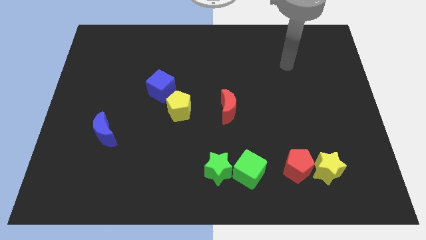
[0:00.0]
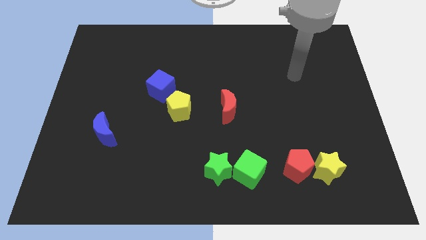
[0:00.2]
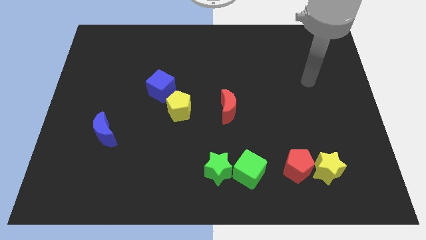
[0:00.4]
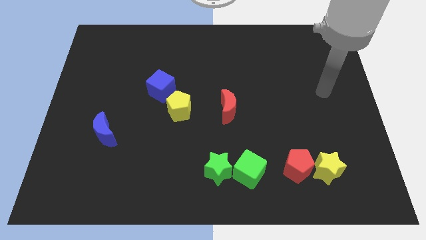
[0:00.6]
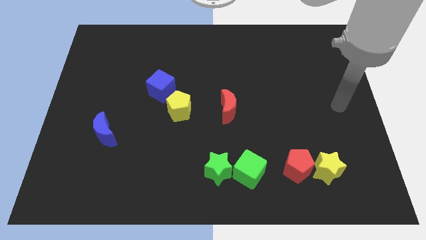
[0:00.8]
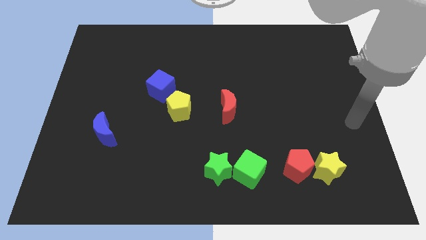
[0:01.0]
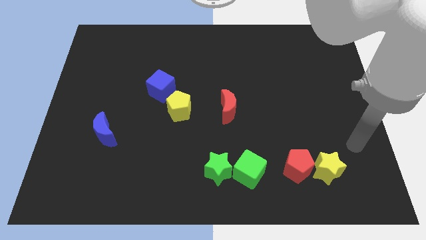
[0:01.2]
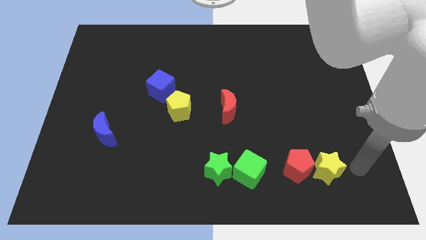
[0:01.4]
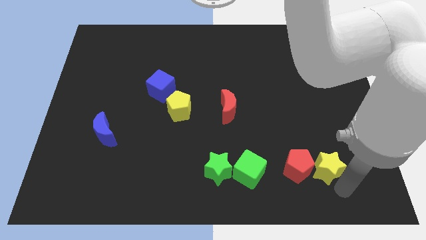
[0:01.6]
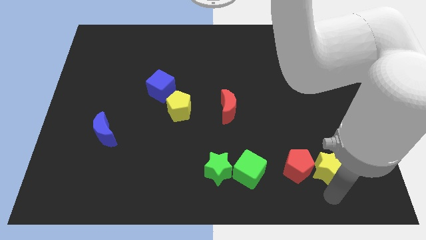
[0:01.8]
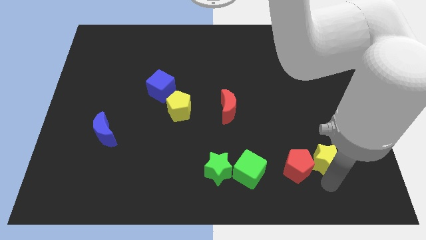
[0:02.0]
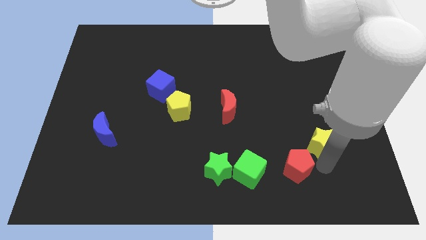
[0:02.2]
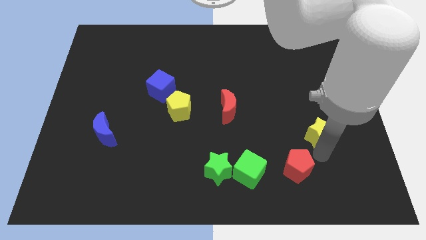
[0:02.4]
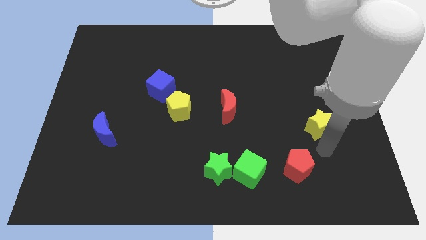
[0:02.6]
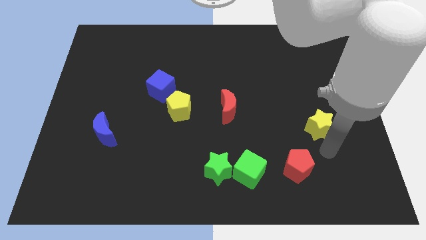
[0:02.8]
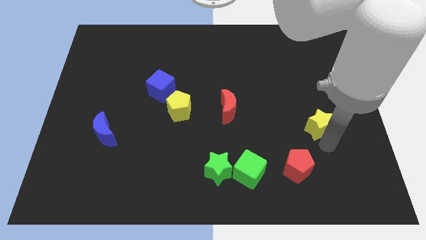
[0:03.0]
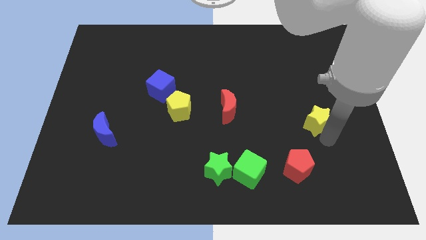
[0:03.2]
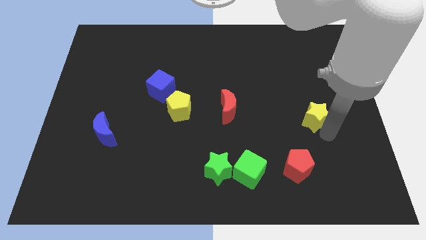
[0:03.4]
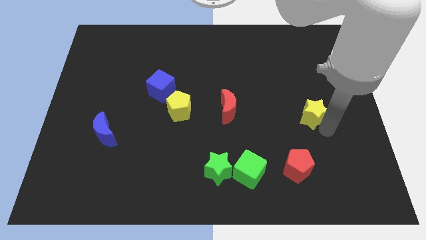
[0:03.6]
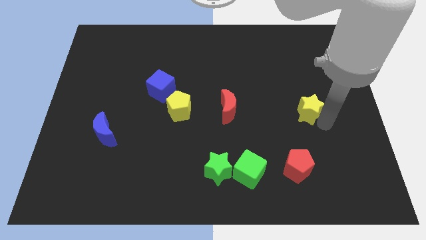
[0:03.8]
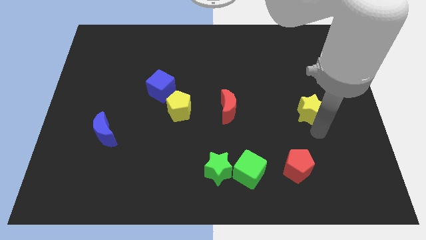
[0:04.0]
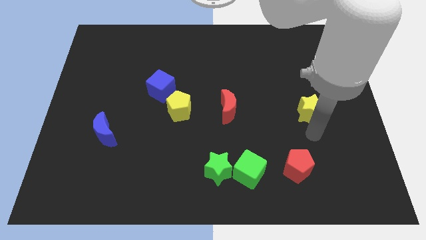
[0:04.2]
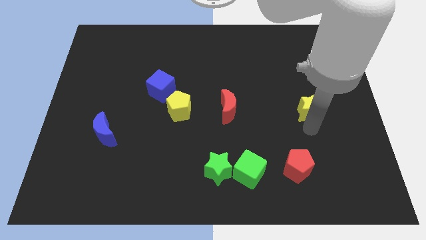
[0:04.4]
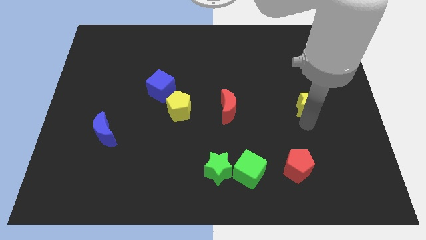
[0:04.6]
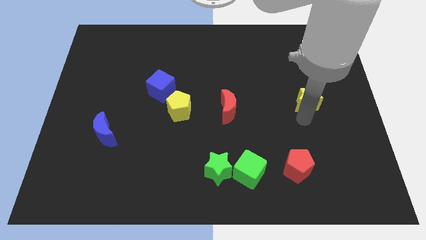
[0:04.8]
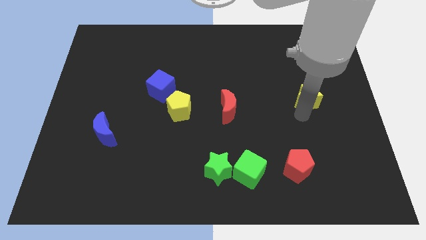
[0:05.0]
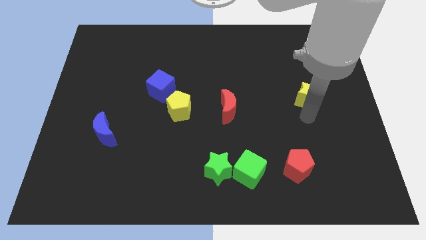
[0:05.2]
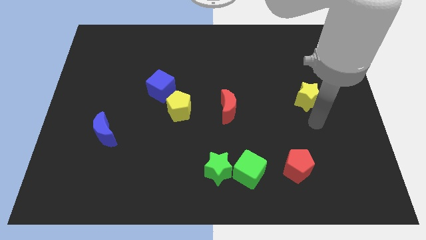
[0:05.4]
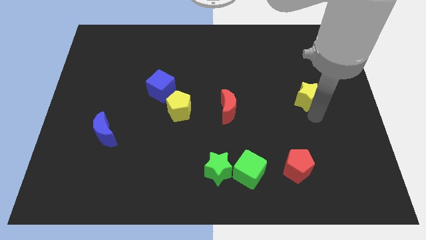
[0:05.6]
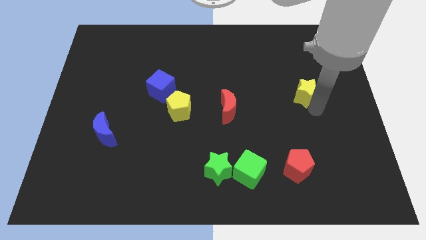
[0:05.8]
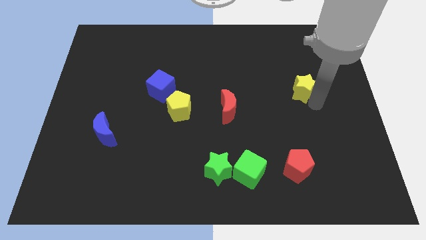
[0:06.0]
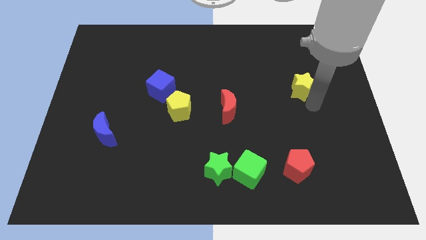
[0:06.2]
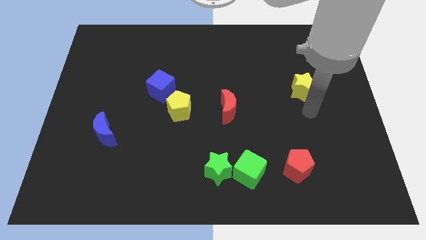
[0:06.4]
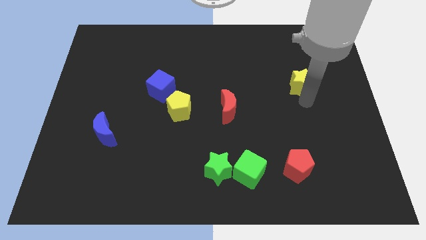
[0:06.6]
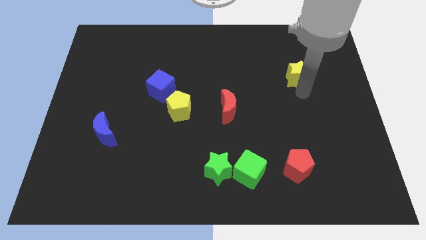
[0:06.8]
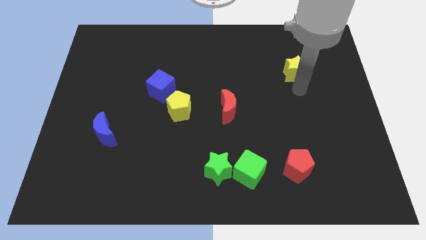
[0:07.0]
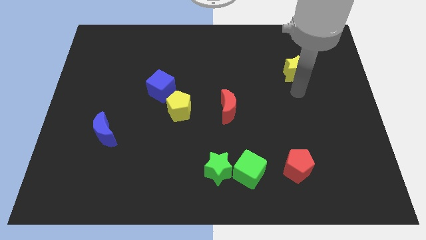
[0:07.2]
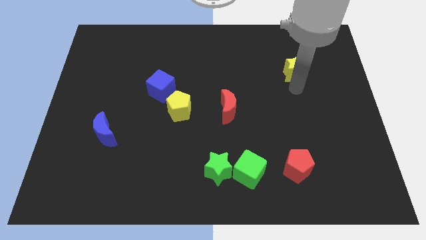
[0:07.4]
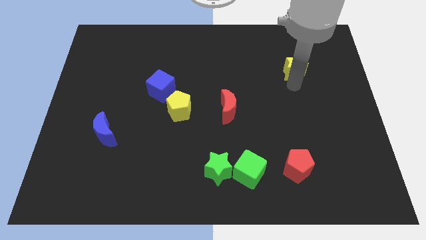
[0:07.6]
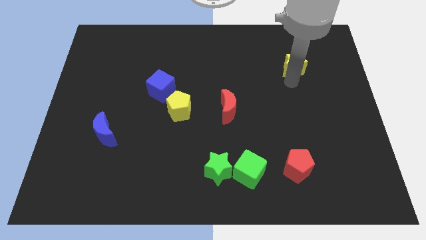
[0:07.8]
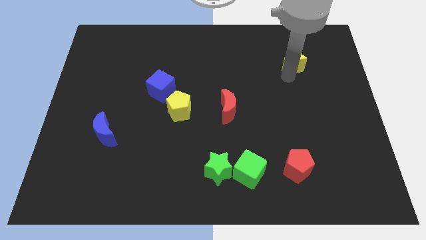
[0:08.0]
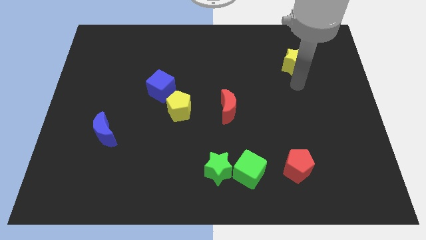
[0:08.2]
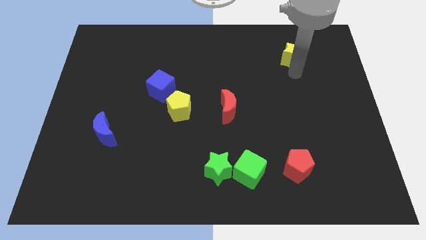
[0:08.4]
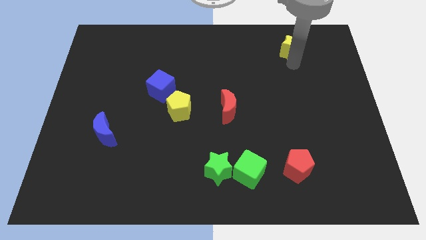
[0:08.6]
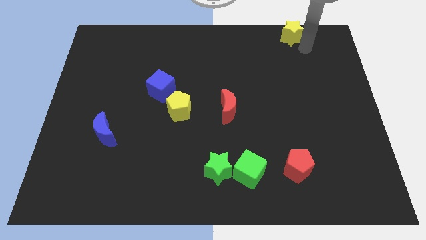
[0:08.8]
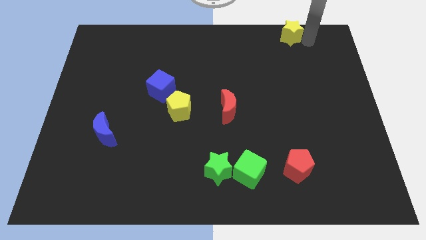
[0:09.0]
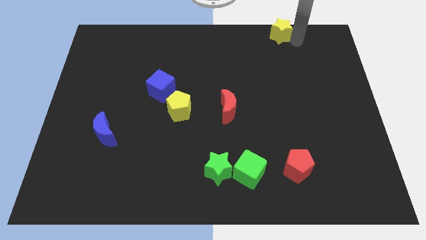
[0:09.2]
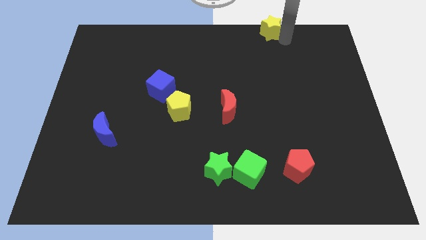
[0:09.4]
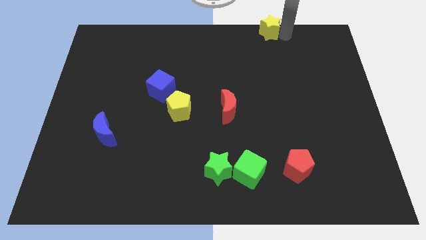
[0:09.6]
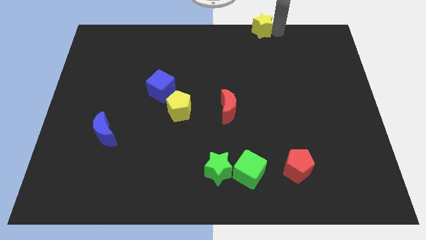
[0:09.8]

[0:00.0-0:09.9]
push the yellow star to the top side

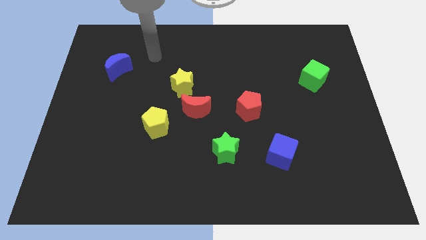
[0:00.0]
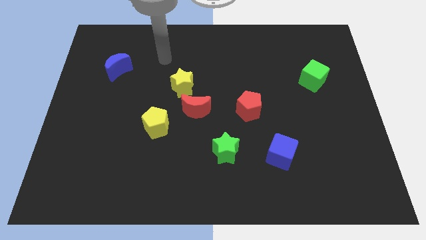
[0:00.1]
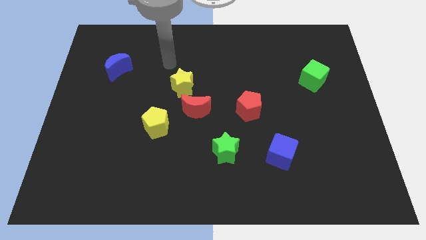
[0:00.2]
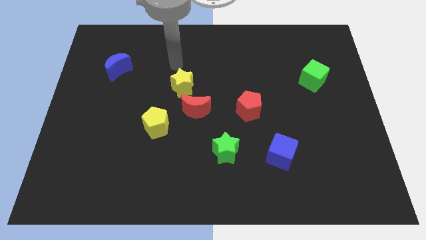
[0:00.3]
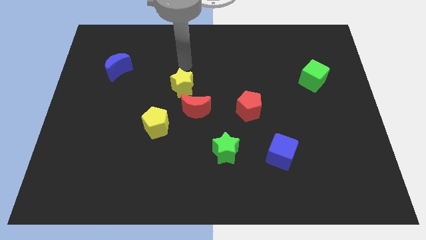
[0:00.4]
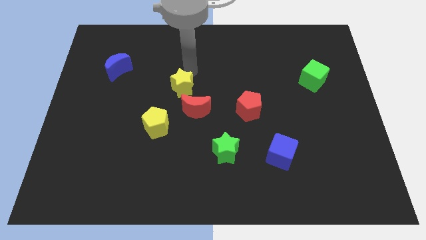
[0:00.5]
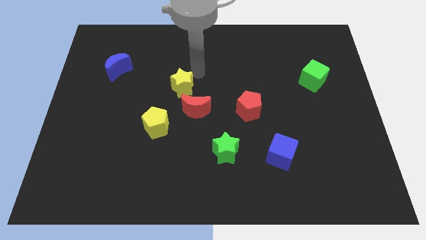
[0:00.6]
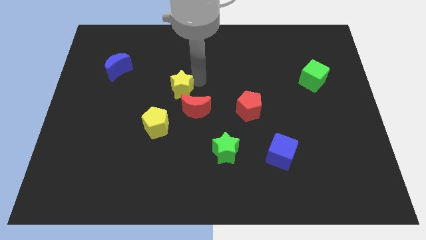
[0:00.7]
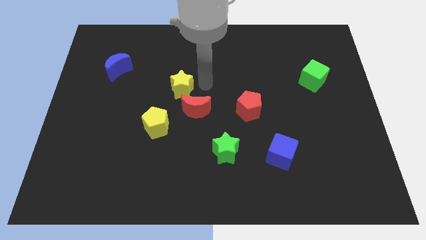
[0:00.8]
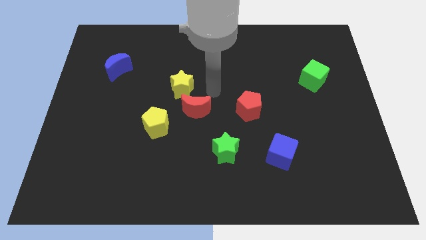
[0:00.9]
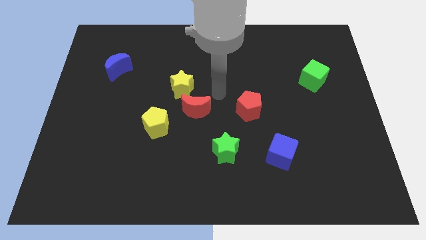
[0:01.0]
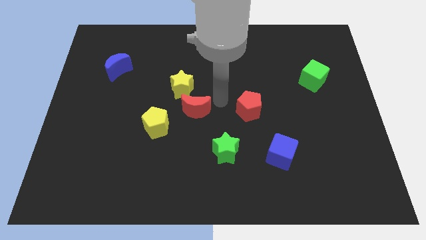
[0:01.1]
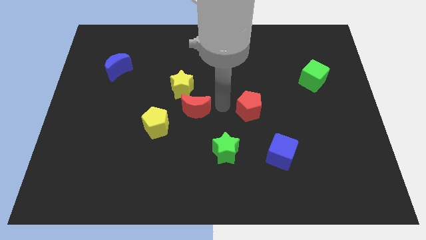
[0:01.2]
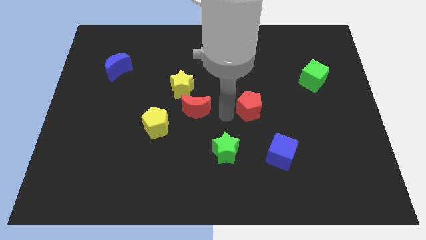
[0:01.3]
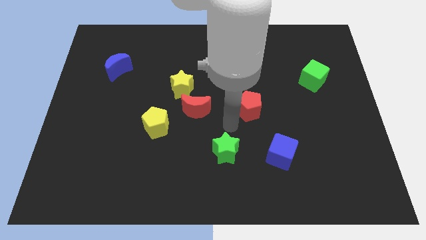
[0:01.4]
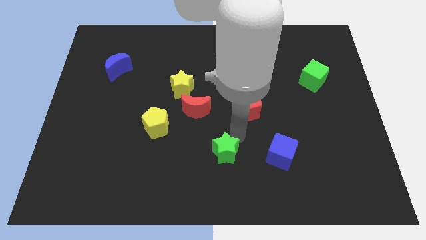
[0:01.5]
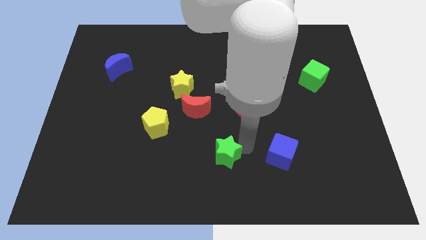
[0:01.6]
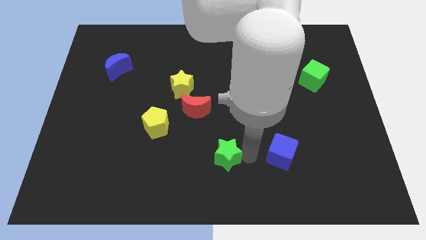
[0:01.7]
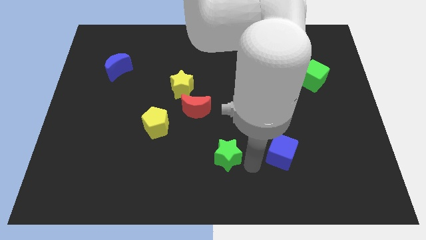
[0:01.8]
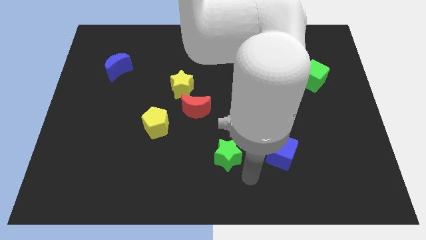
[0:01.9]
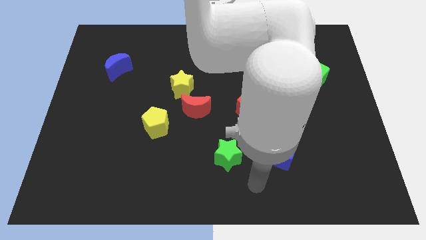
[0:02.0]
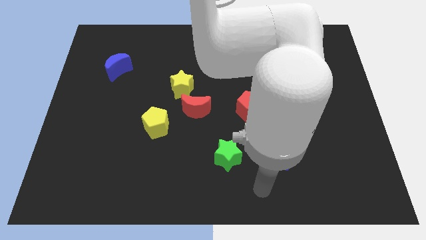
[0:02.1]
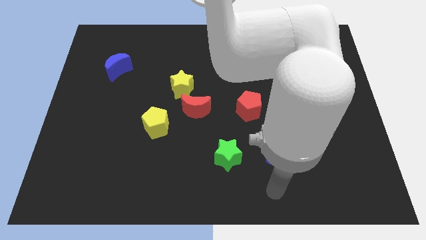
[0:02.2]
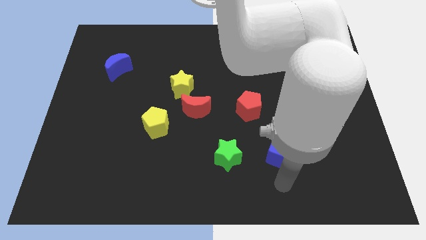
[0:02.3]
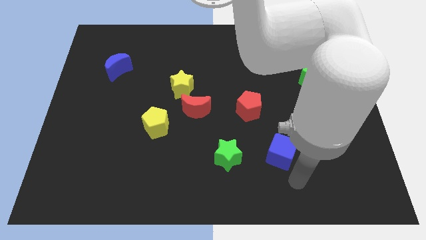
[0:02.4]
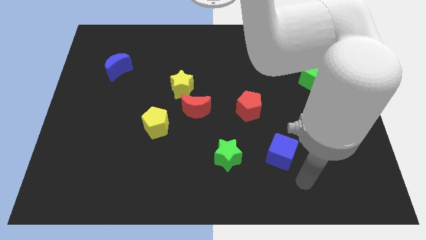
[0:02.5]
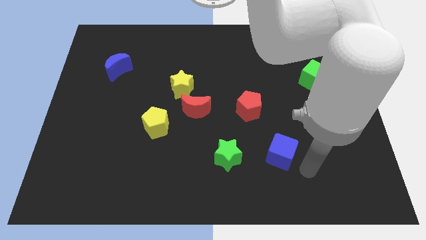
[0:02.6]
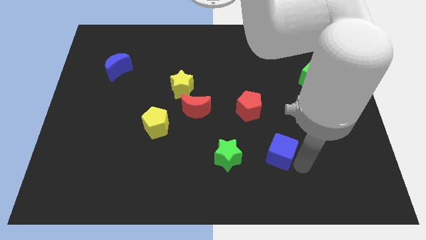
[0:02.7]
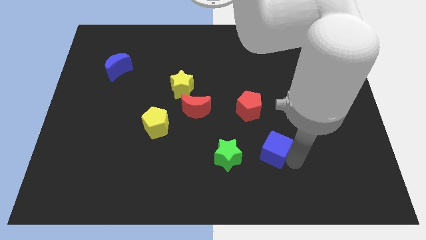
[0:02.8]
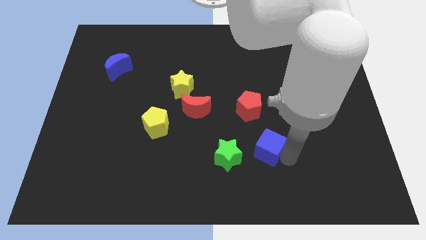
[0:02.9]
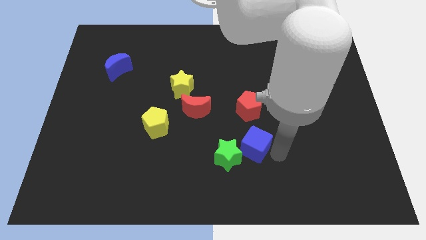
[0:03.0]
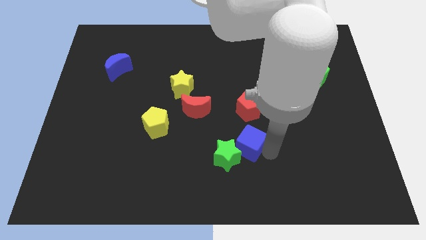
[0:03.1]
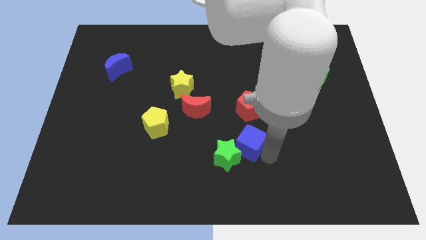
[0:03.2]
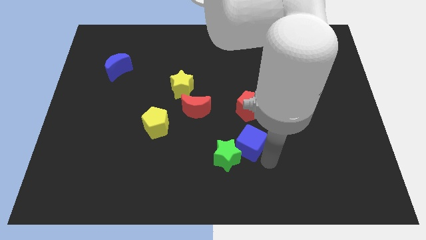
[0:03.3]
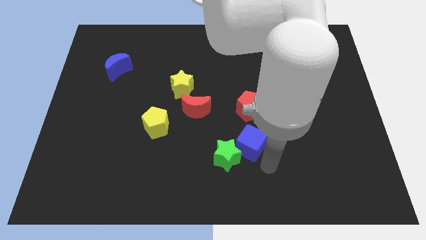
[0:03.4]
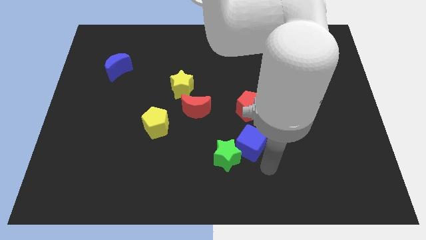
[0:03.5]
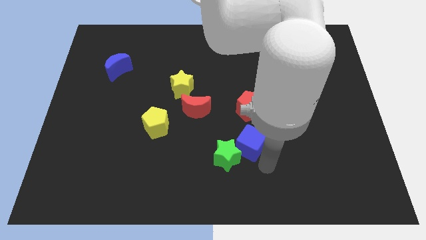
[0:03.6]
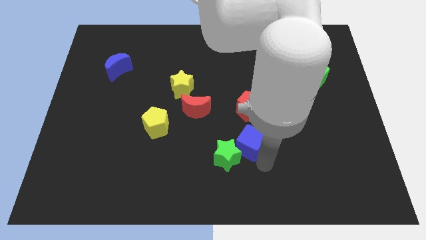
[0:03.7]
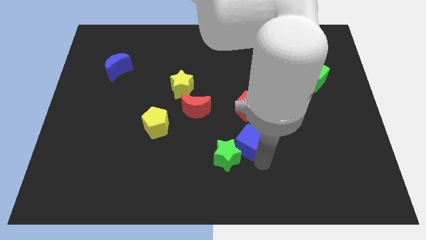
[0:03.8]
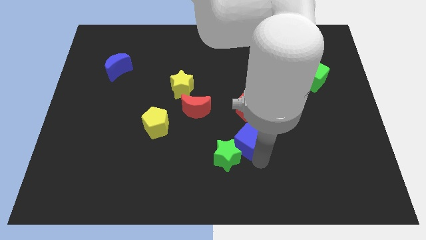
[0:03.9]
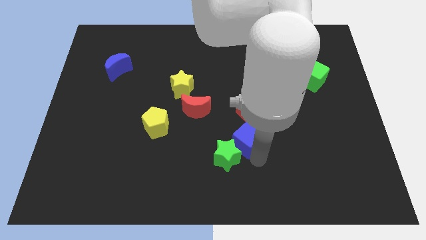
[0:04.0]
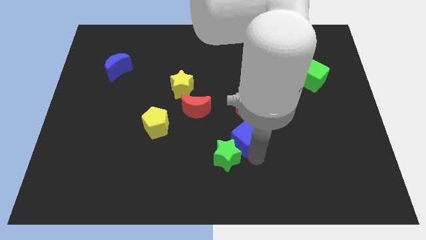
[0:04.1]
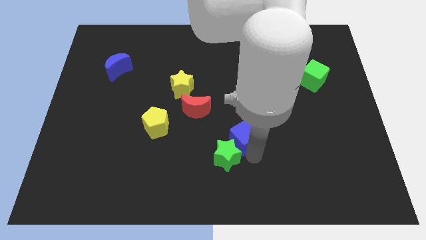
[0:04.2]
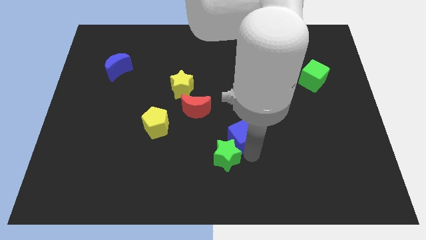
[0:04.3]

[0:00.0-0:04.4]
slide the blue cube to the center of the board
